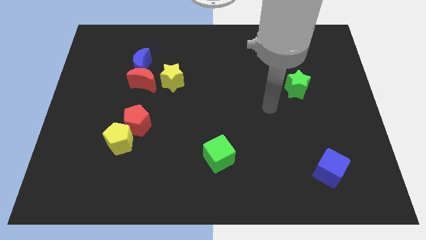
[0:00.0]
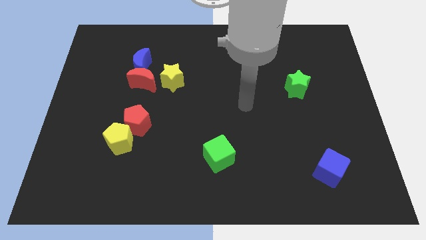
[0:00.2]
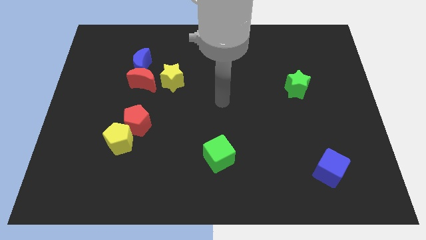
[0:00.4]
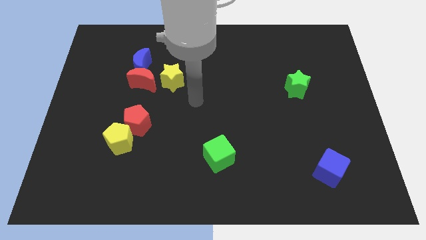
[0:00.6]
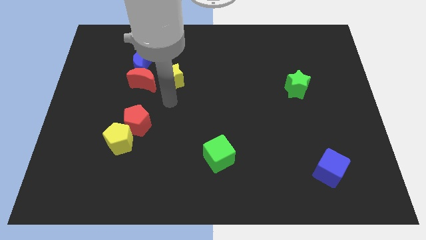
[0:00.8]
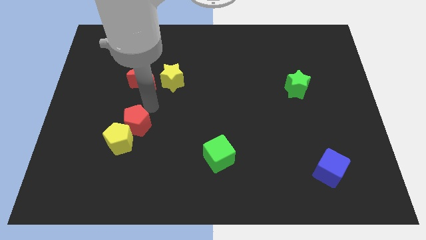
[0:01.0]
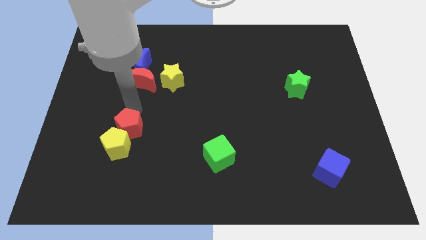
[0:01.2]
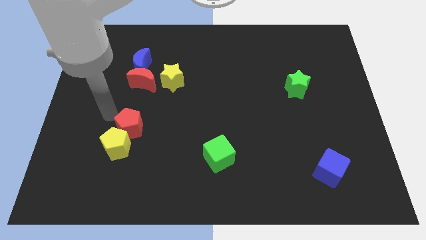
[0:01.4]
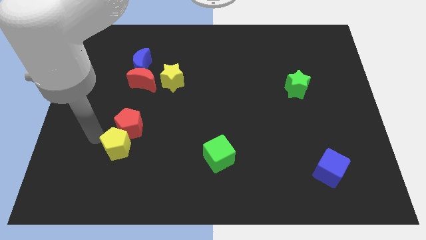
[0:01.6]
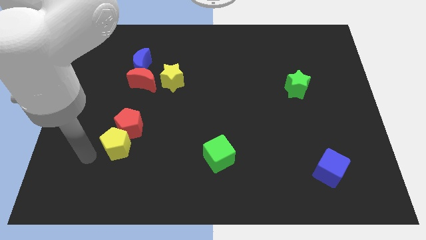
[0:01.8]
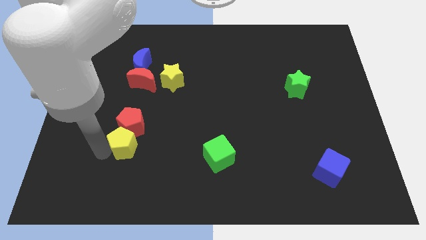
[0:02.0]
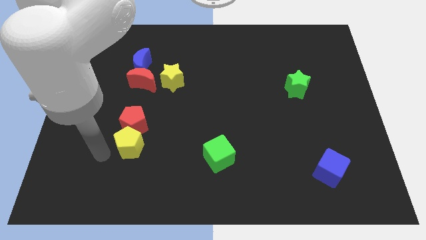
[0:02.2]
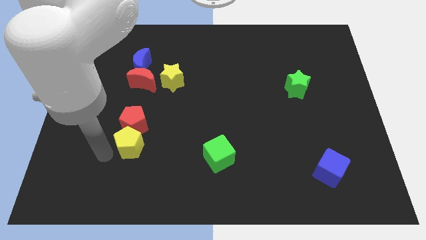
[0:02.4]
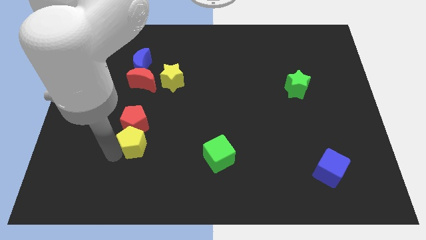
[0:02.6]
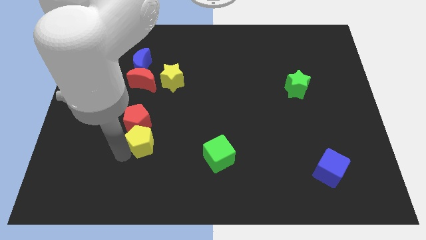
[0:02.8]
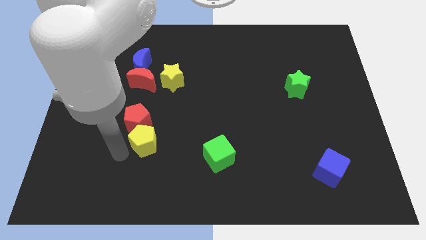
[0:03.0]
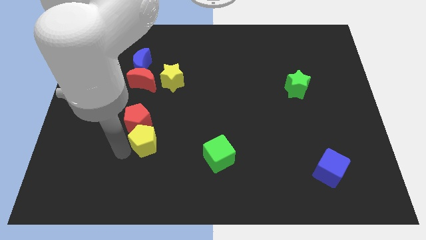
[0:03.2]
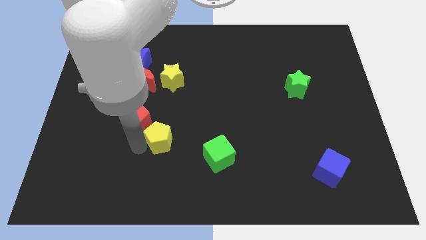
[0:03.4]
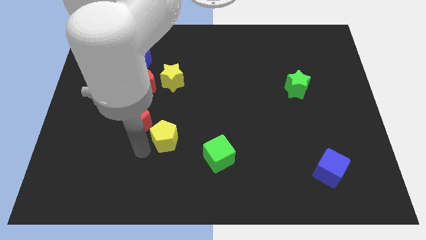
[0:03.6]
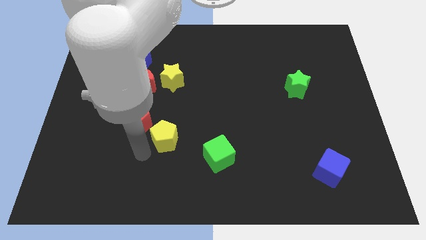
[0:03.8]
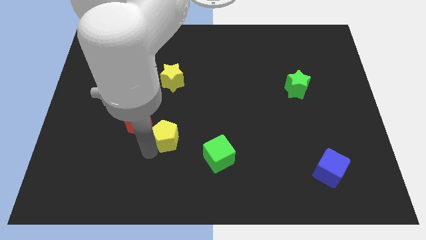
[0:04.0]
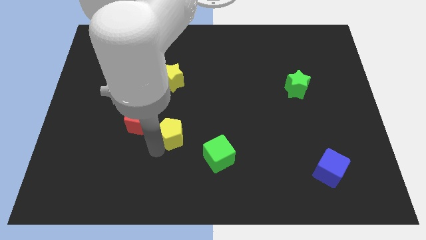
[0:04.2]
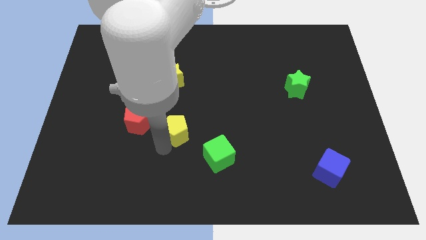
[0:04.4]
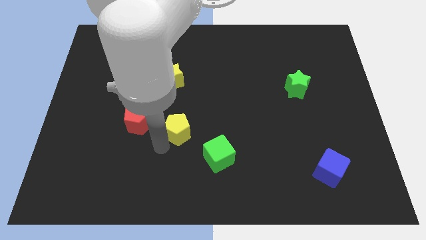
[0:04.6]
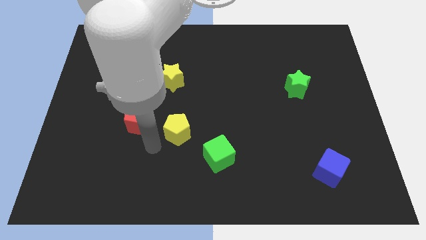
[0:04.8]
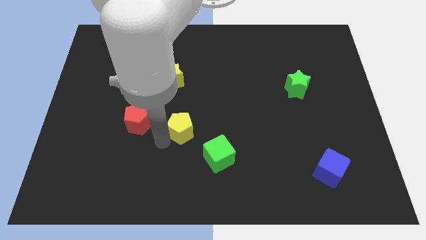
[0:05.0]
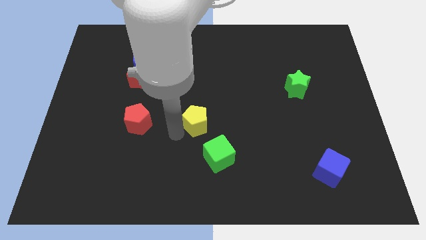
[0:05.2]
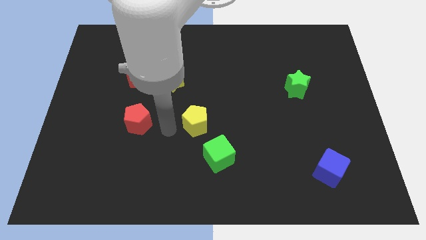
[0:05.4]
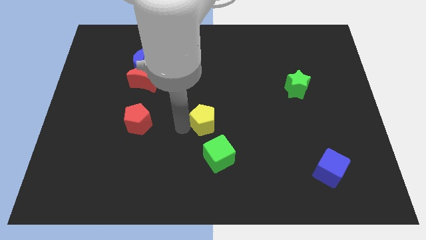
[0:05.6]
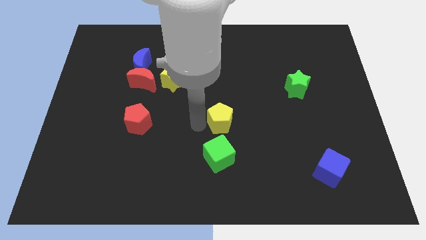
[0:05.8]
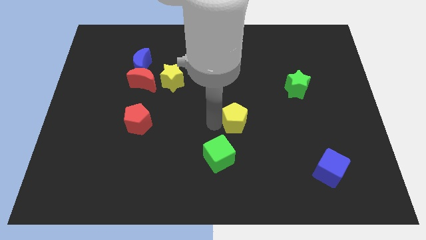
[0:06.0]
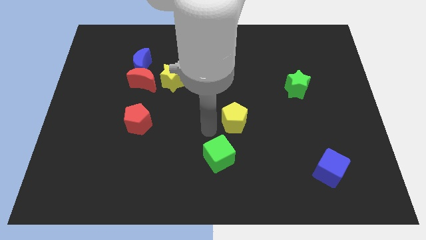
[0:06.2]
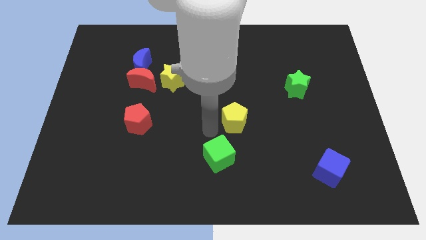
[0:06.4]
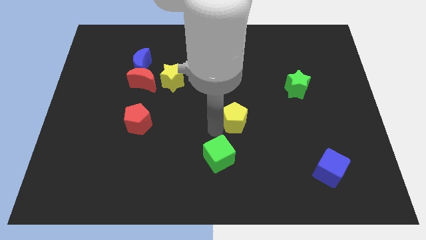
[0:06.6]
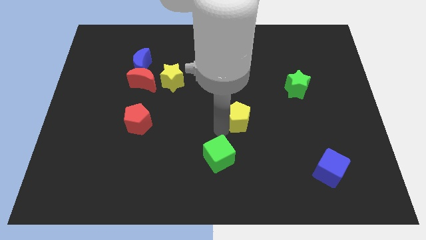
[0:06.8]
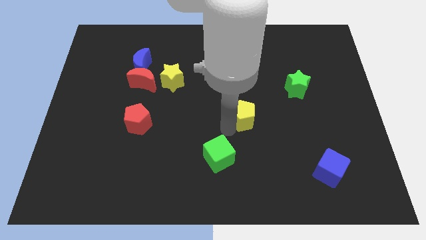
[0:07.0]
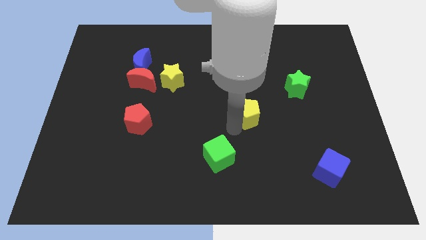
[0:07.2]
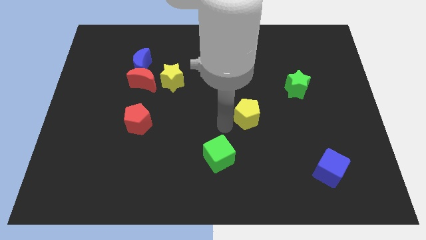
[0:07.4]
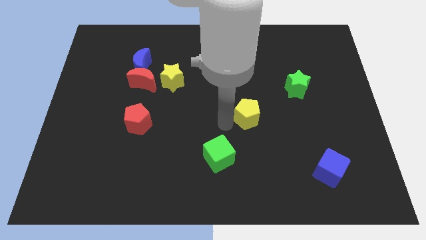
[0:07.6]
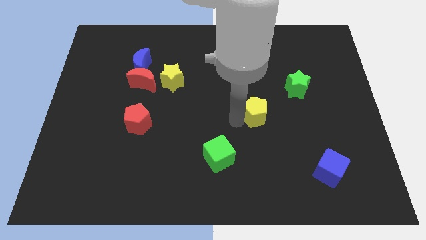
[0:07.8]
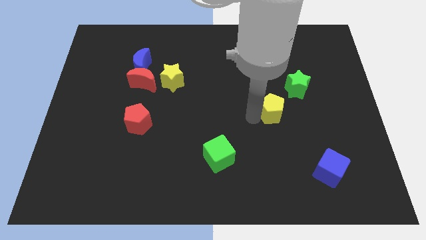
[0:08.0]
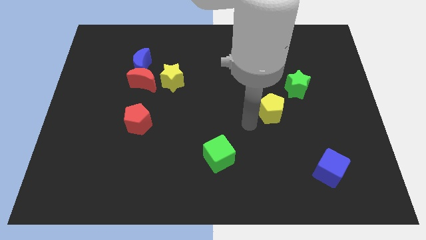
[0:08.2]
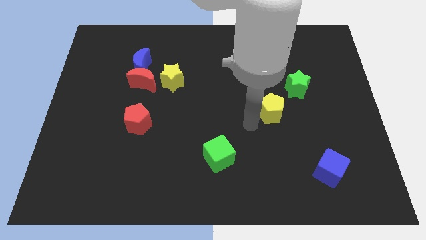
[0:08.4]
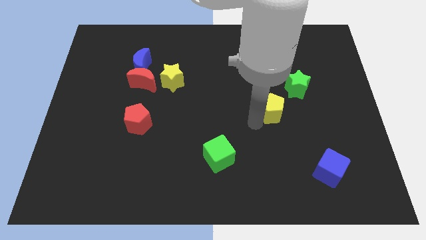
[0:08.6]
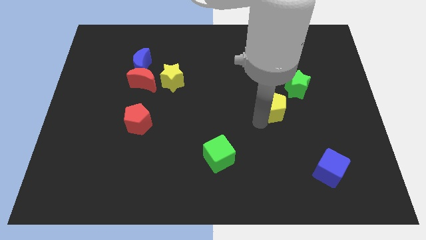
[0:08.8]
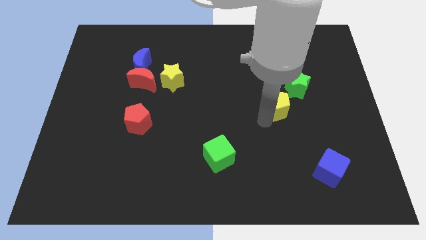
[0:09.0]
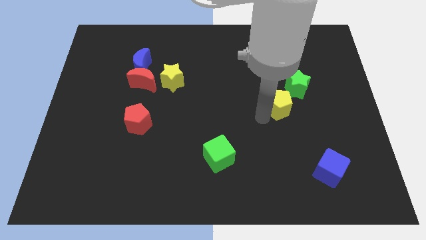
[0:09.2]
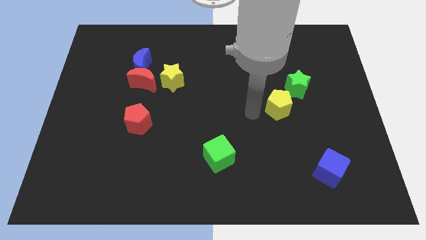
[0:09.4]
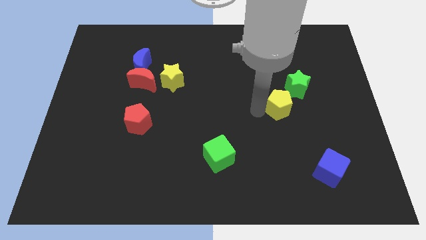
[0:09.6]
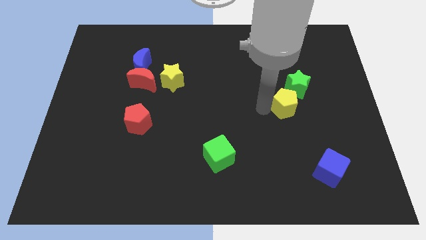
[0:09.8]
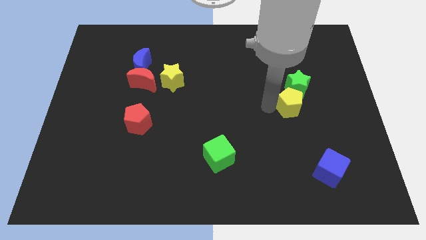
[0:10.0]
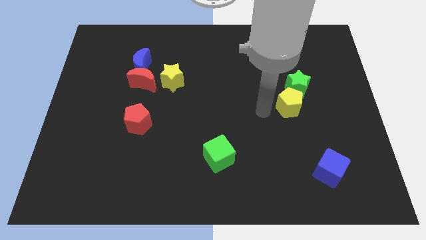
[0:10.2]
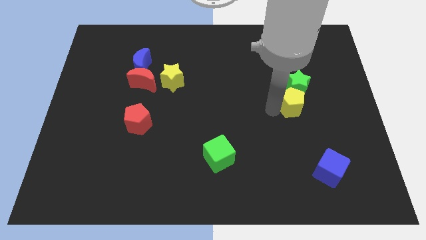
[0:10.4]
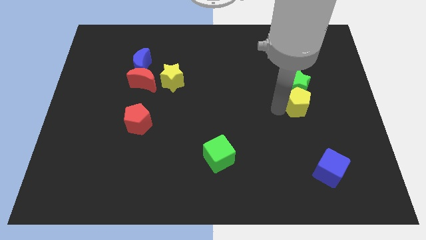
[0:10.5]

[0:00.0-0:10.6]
push the yellow pentagon diagonally down and to the right of the green star

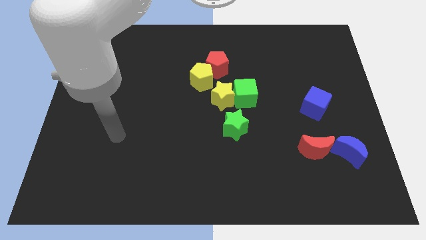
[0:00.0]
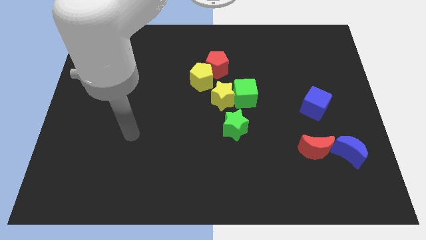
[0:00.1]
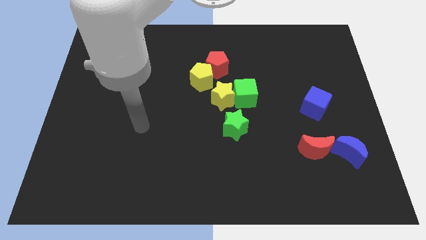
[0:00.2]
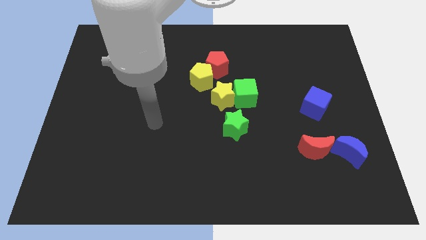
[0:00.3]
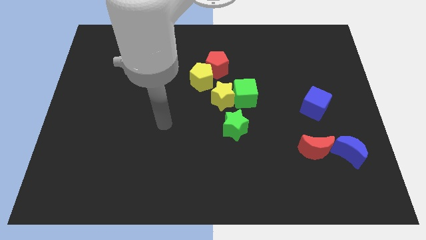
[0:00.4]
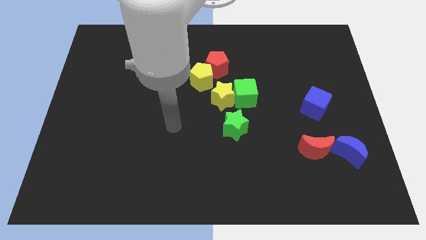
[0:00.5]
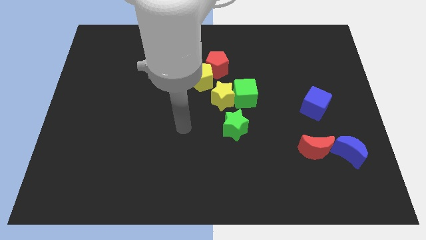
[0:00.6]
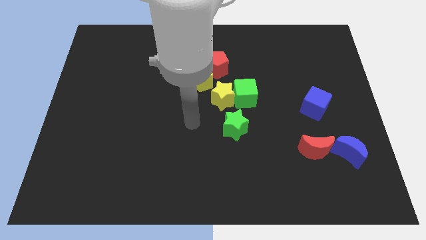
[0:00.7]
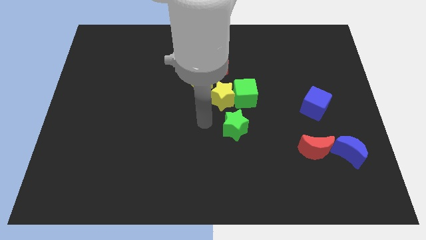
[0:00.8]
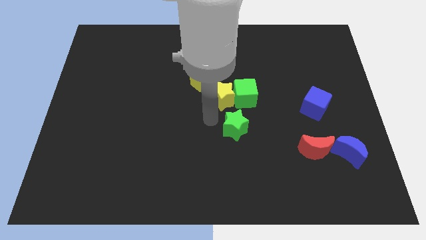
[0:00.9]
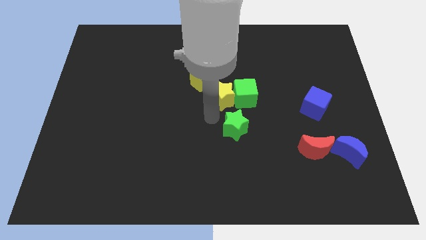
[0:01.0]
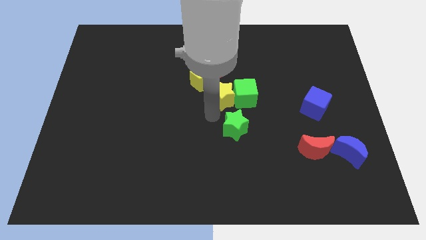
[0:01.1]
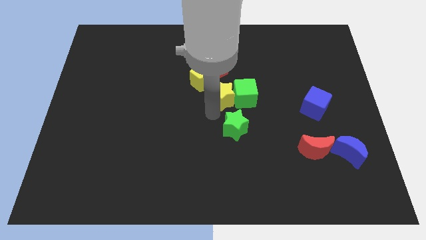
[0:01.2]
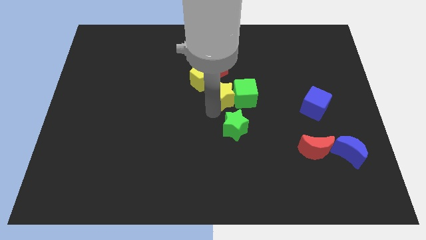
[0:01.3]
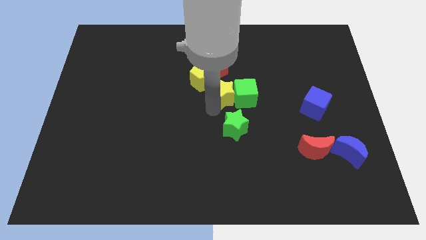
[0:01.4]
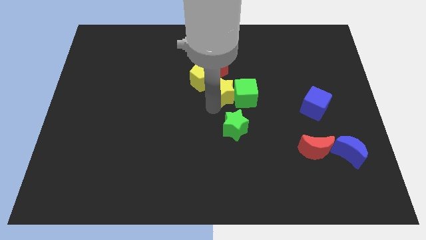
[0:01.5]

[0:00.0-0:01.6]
put the yellow star just right of the yellow pentagon

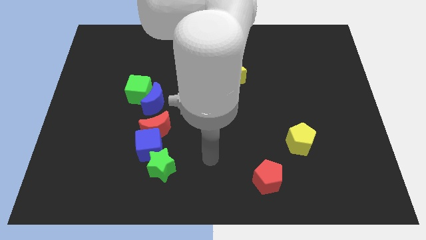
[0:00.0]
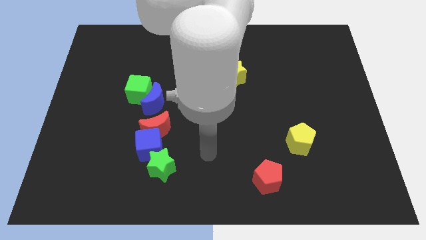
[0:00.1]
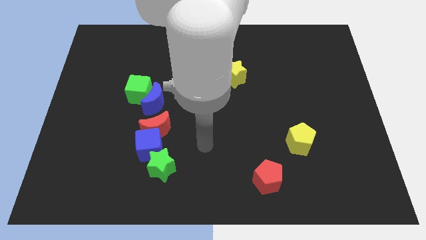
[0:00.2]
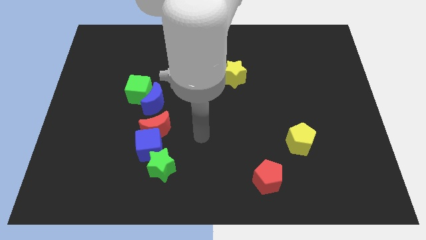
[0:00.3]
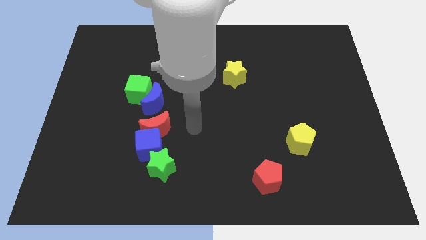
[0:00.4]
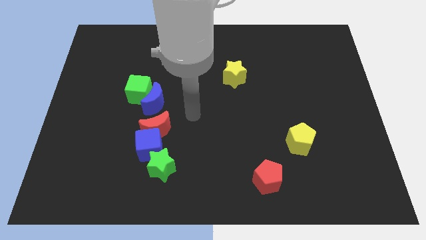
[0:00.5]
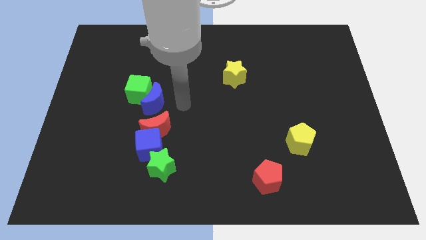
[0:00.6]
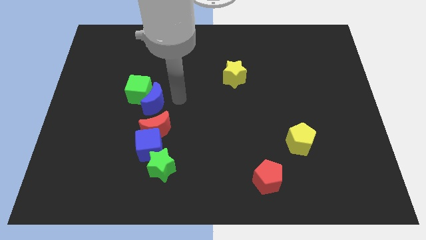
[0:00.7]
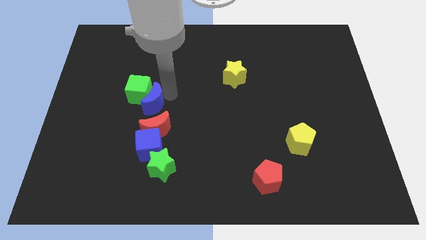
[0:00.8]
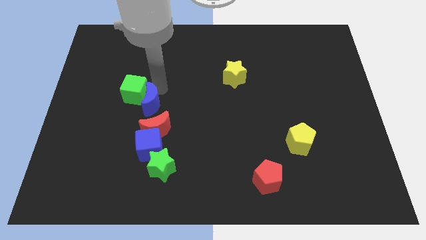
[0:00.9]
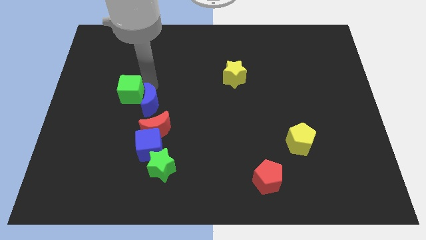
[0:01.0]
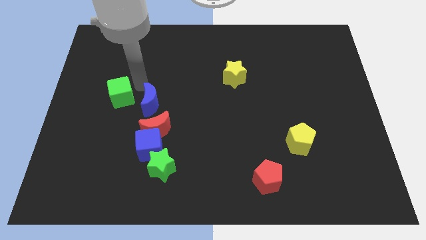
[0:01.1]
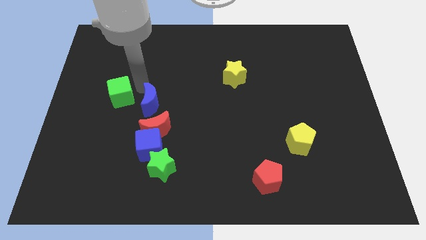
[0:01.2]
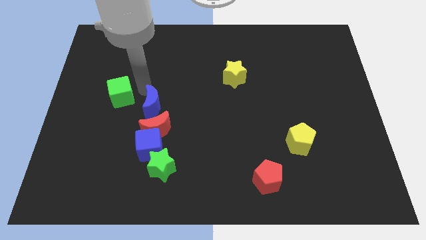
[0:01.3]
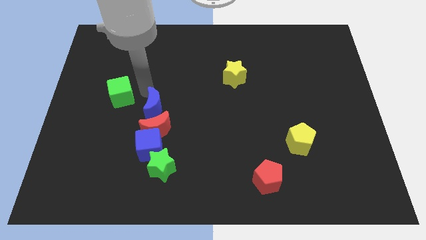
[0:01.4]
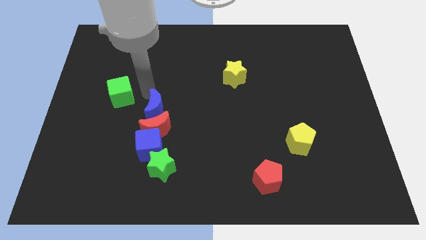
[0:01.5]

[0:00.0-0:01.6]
slide the blue moon above the green star
